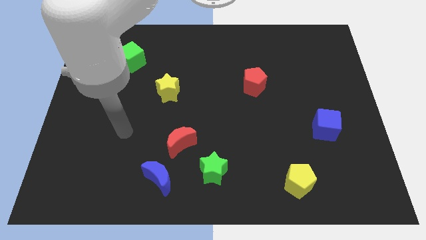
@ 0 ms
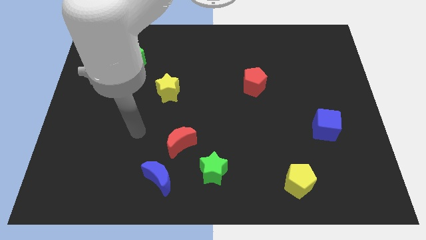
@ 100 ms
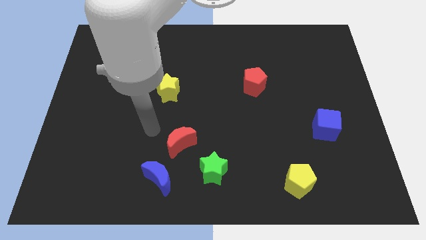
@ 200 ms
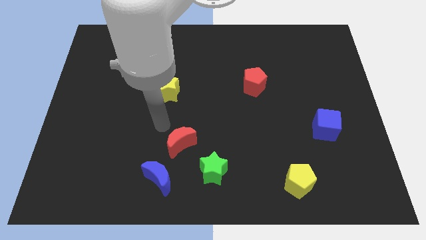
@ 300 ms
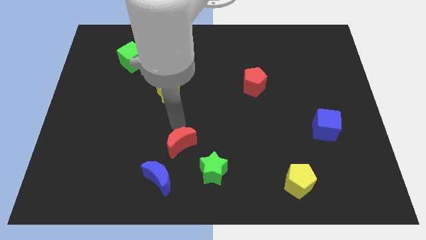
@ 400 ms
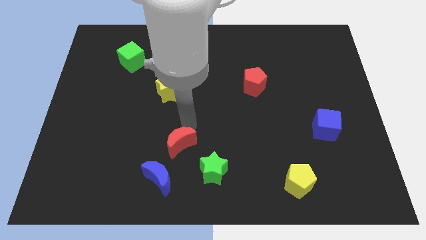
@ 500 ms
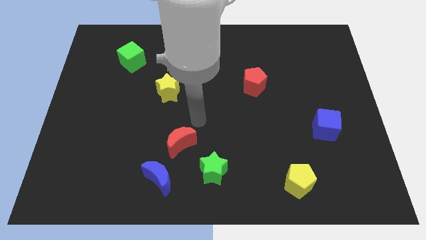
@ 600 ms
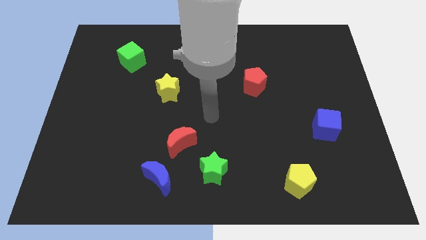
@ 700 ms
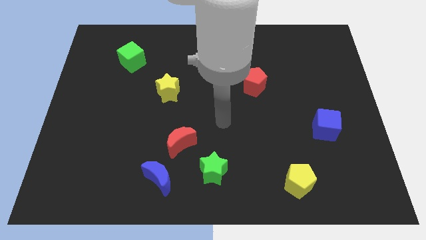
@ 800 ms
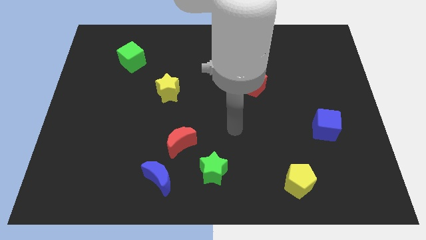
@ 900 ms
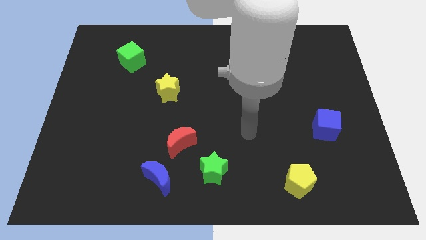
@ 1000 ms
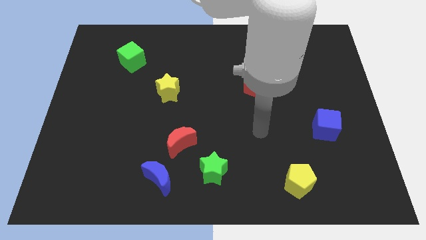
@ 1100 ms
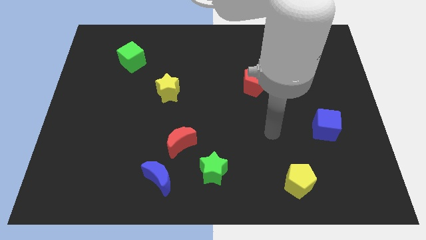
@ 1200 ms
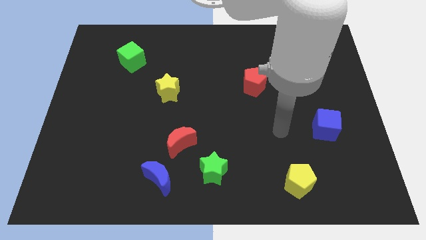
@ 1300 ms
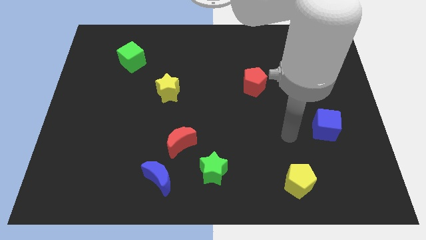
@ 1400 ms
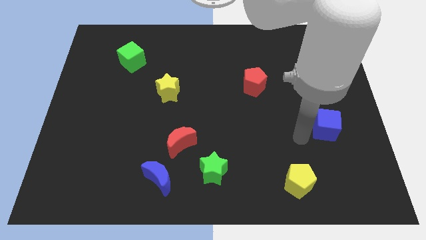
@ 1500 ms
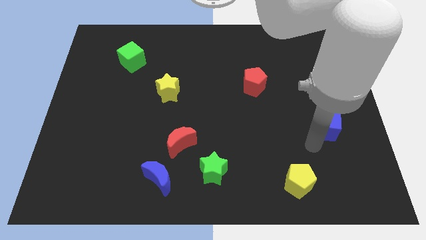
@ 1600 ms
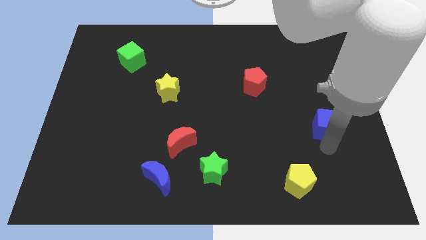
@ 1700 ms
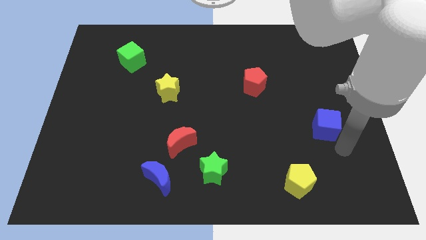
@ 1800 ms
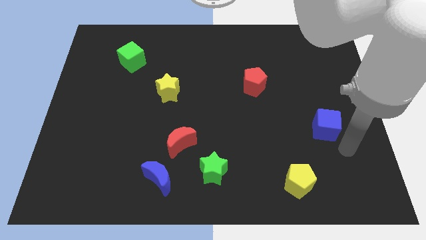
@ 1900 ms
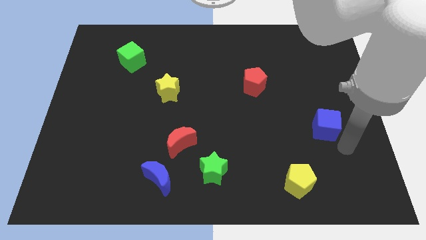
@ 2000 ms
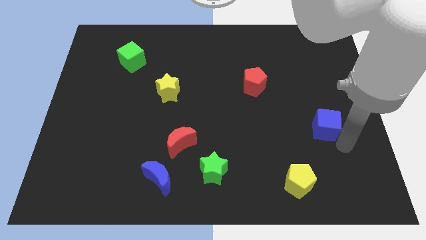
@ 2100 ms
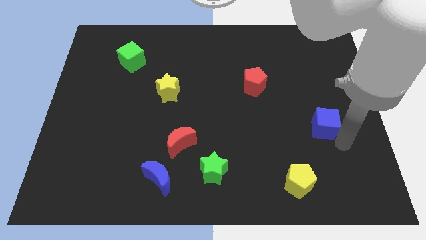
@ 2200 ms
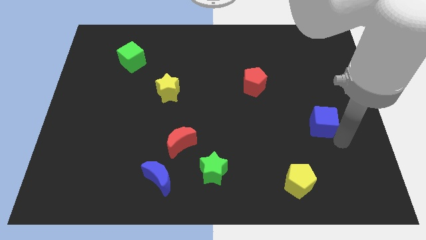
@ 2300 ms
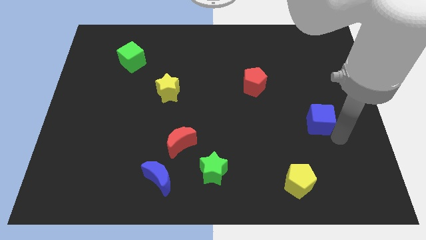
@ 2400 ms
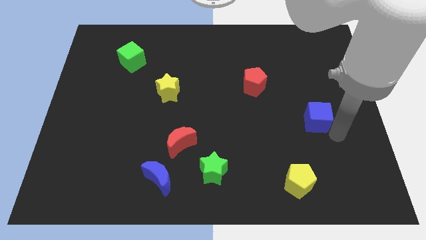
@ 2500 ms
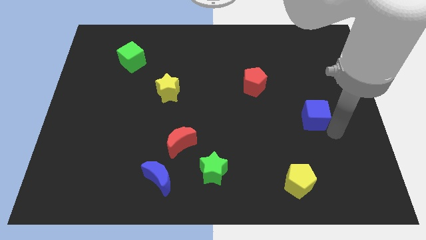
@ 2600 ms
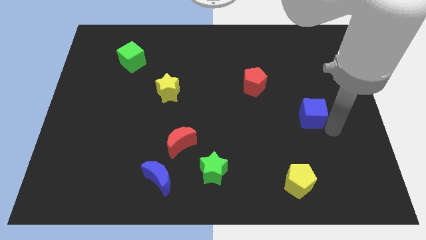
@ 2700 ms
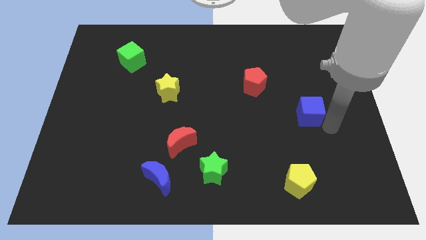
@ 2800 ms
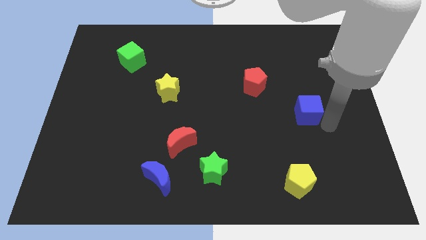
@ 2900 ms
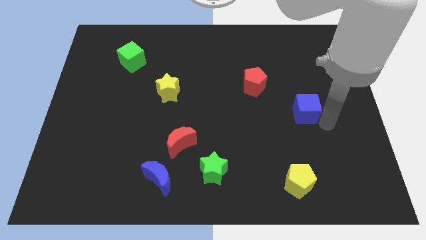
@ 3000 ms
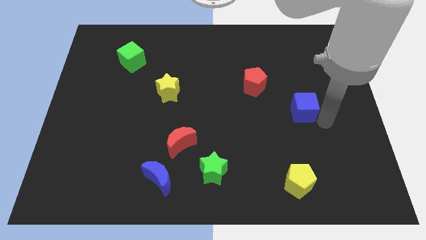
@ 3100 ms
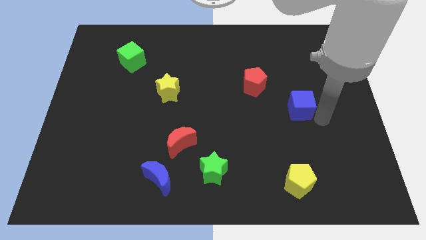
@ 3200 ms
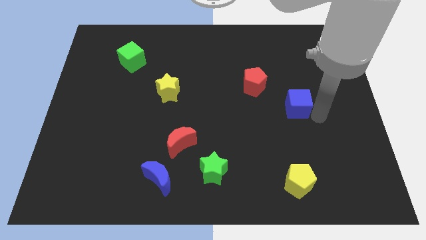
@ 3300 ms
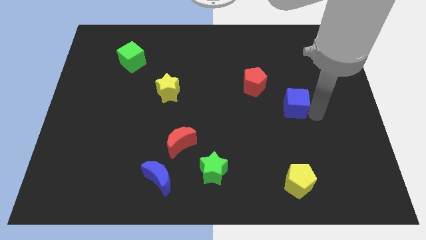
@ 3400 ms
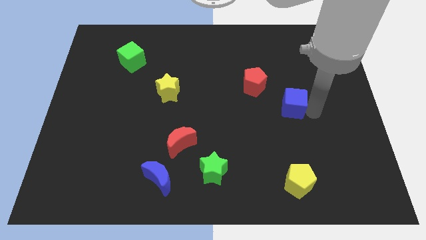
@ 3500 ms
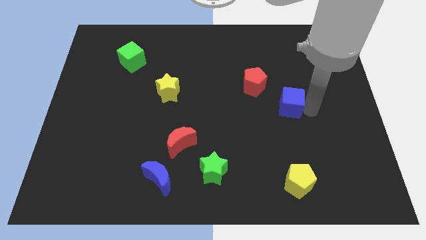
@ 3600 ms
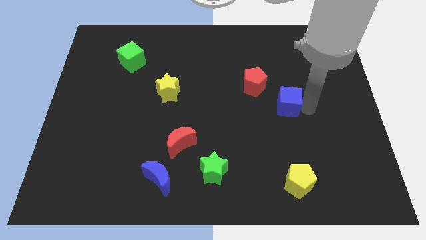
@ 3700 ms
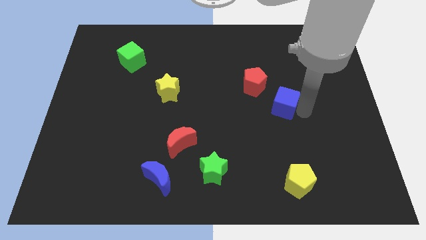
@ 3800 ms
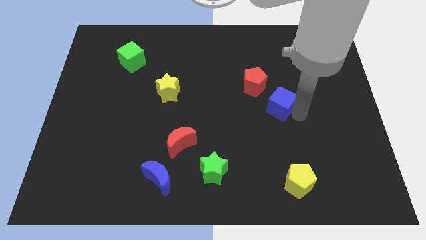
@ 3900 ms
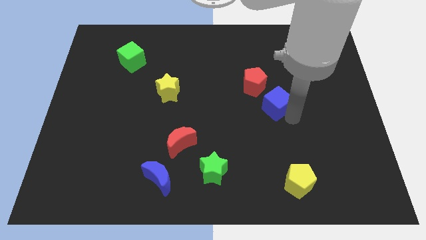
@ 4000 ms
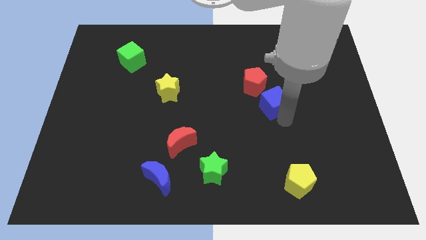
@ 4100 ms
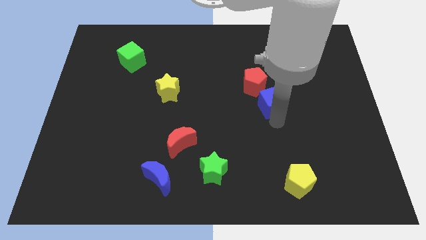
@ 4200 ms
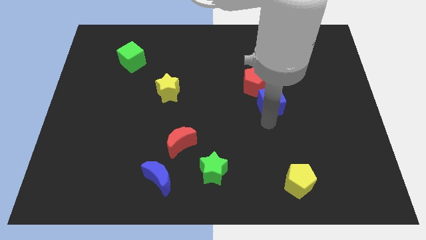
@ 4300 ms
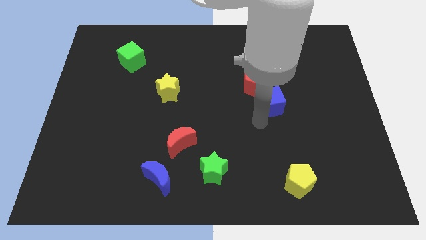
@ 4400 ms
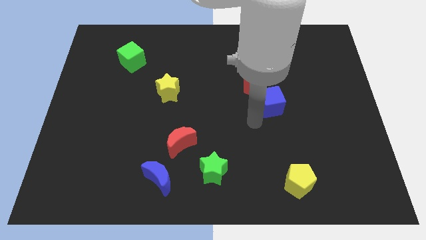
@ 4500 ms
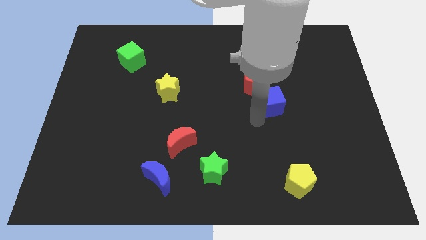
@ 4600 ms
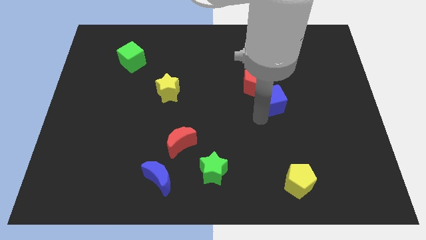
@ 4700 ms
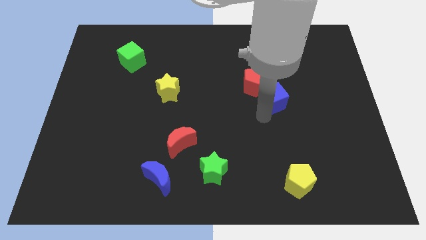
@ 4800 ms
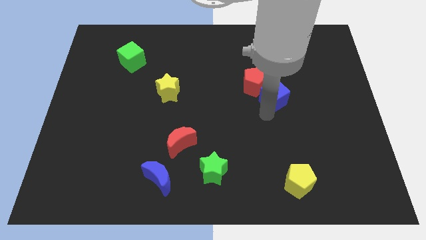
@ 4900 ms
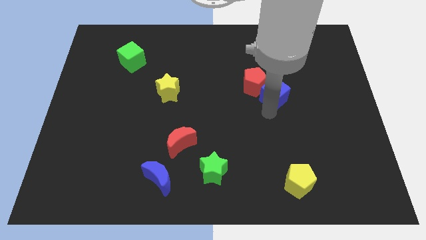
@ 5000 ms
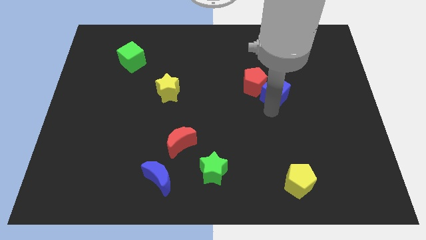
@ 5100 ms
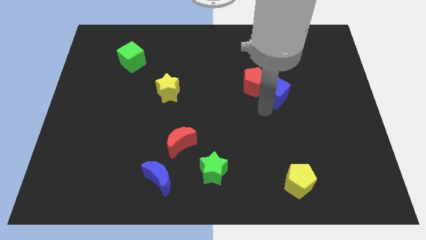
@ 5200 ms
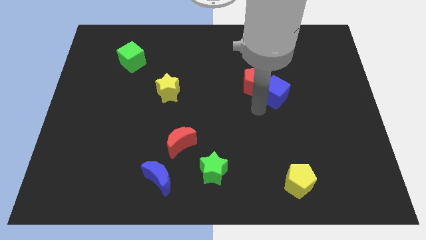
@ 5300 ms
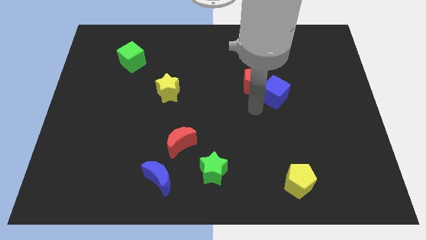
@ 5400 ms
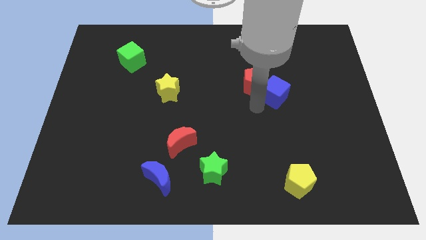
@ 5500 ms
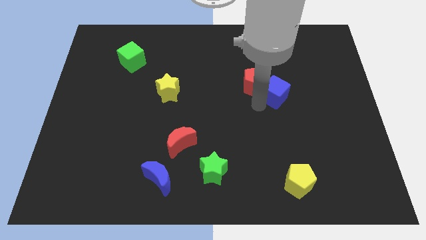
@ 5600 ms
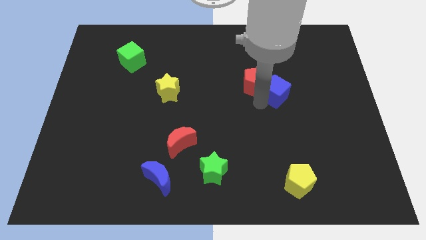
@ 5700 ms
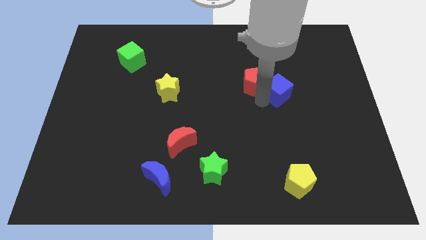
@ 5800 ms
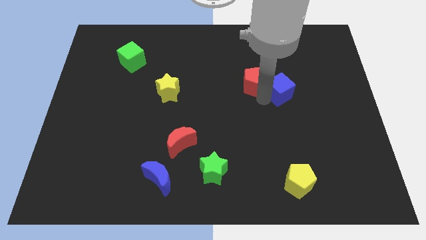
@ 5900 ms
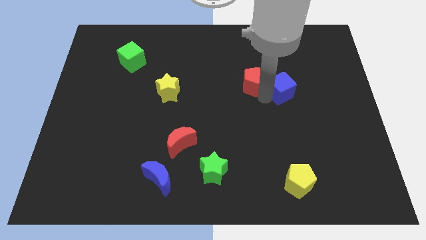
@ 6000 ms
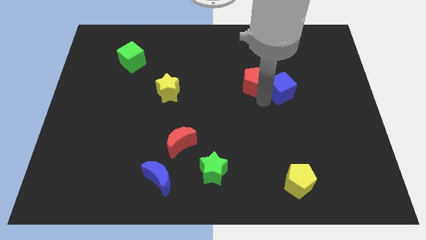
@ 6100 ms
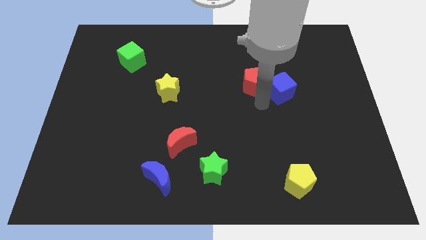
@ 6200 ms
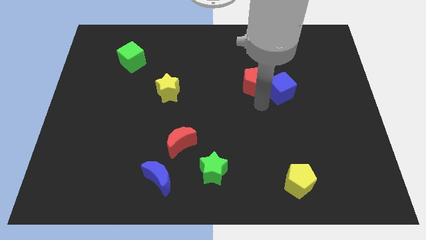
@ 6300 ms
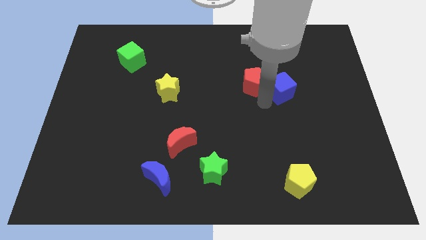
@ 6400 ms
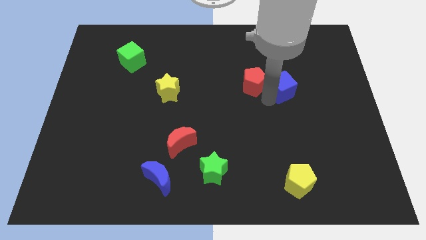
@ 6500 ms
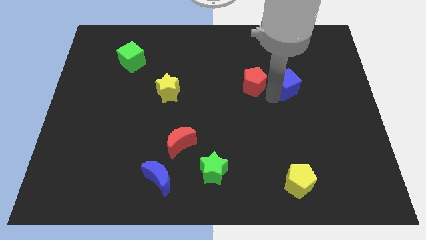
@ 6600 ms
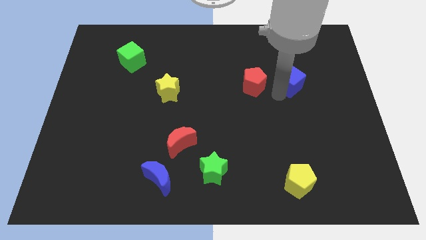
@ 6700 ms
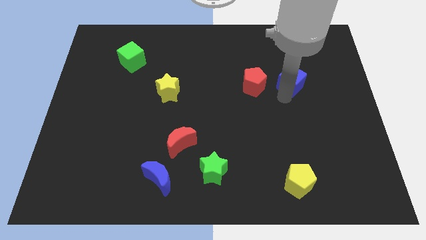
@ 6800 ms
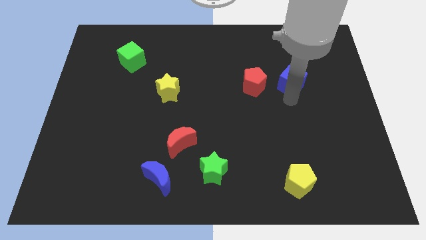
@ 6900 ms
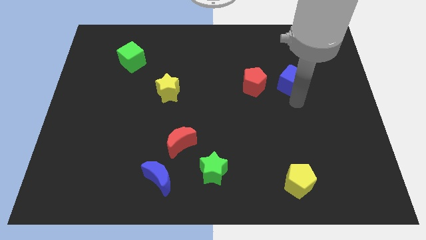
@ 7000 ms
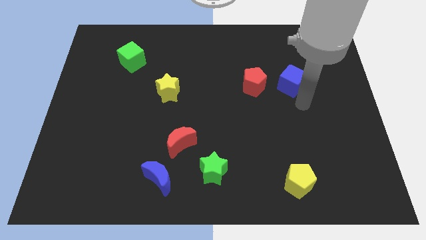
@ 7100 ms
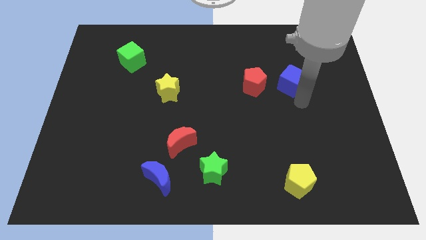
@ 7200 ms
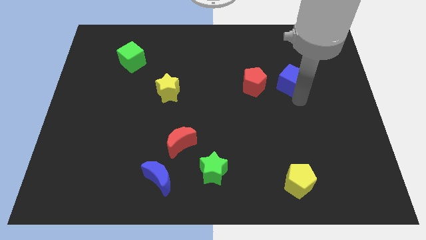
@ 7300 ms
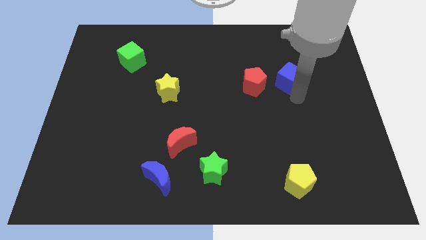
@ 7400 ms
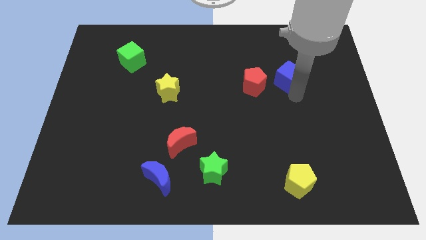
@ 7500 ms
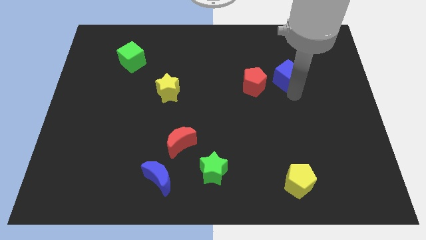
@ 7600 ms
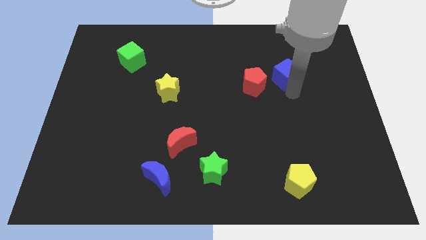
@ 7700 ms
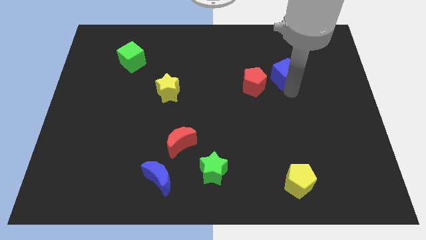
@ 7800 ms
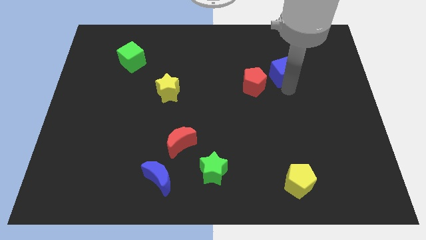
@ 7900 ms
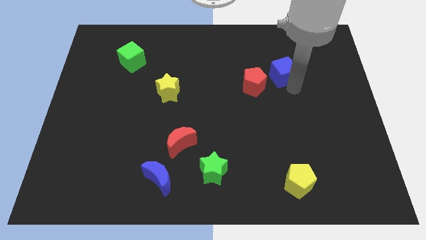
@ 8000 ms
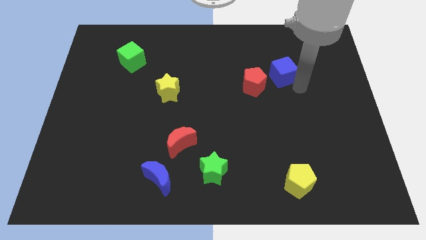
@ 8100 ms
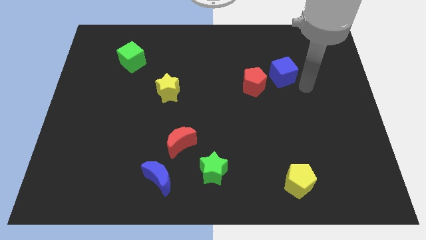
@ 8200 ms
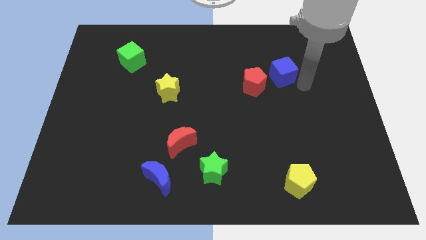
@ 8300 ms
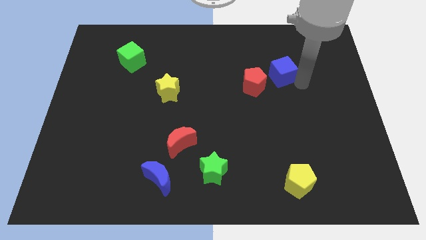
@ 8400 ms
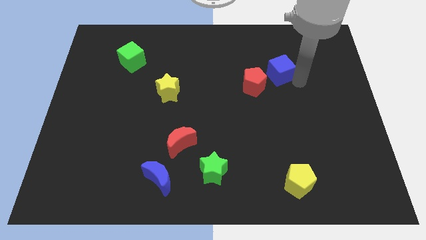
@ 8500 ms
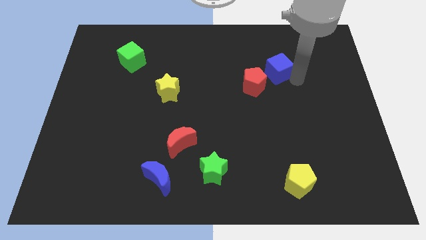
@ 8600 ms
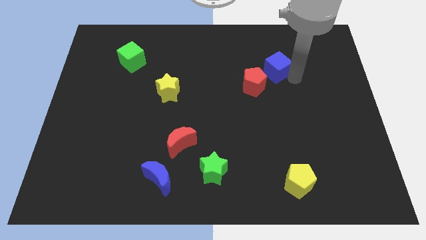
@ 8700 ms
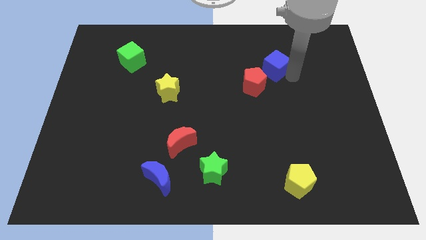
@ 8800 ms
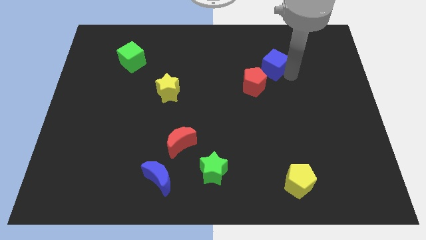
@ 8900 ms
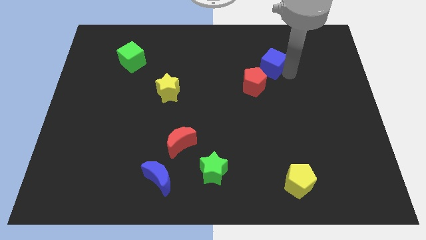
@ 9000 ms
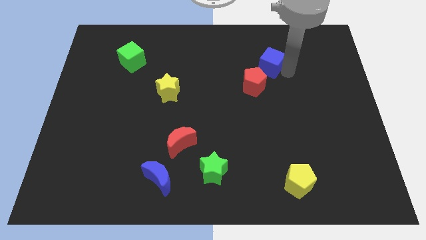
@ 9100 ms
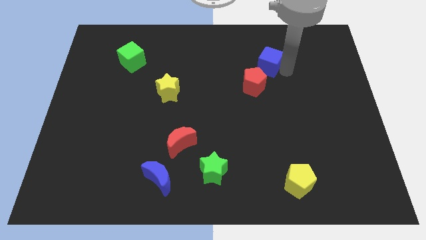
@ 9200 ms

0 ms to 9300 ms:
push the blue cube diagonally upwards and left
